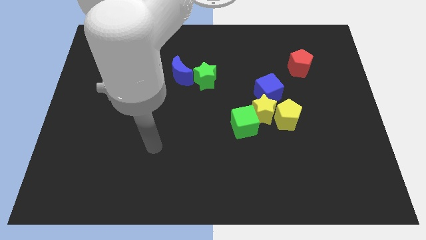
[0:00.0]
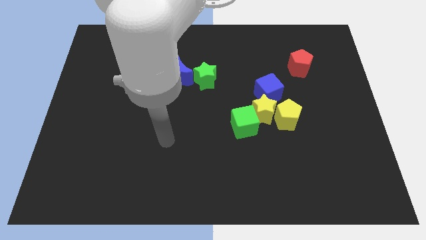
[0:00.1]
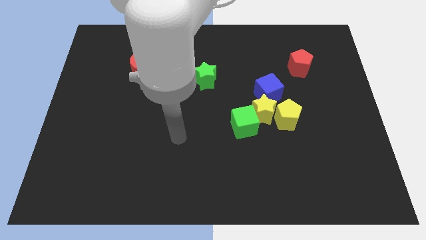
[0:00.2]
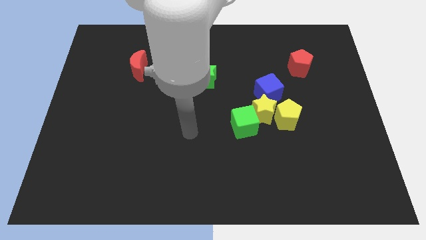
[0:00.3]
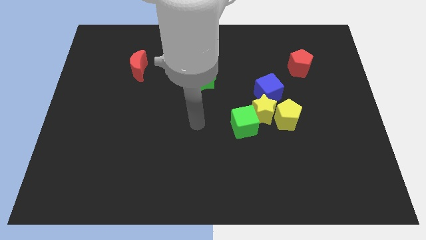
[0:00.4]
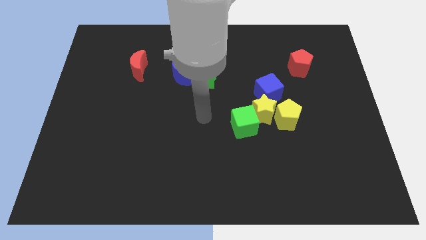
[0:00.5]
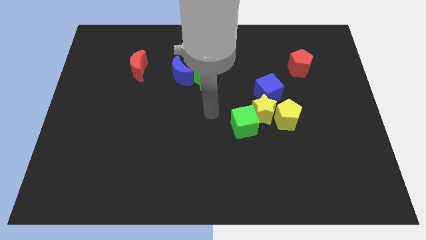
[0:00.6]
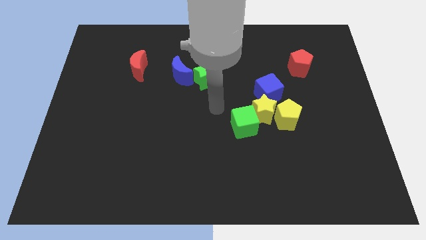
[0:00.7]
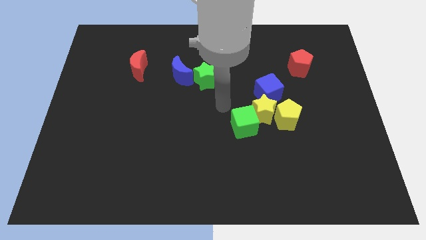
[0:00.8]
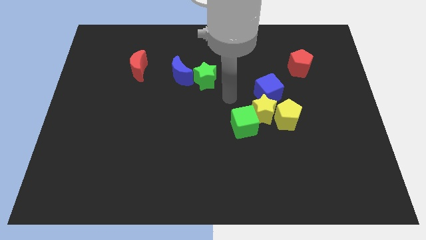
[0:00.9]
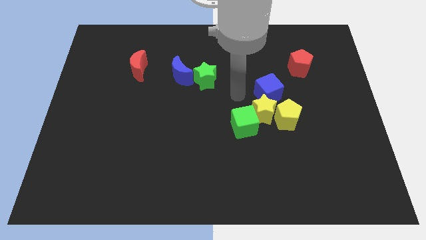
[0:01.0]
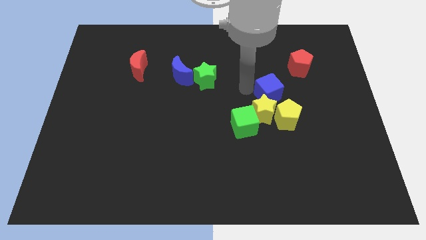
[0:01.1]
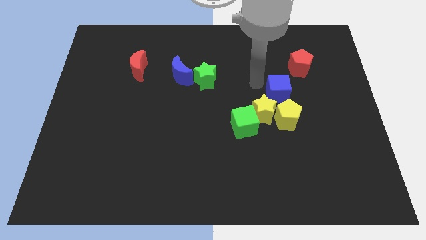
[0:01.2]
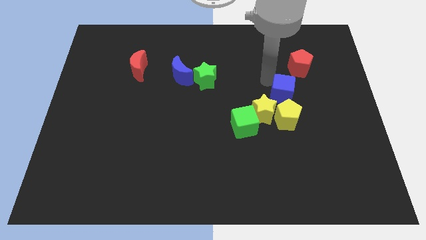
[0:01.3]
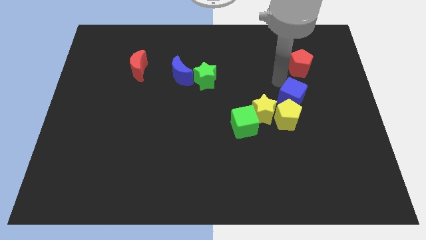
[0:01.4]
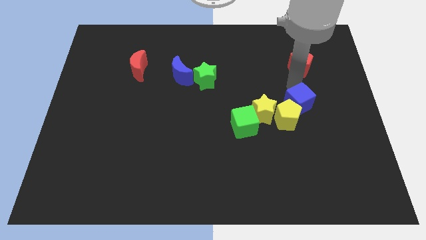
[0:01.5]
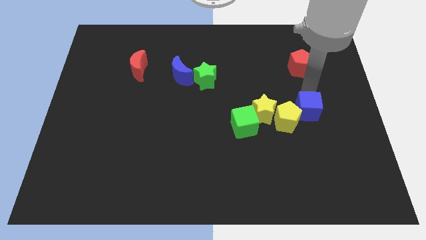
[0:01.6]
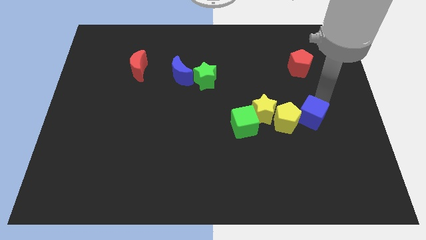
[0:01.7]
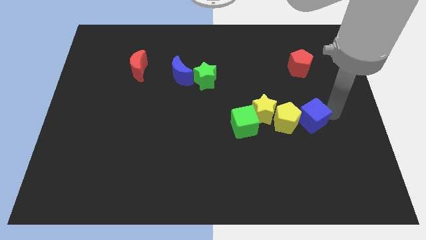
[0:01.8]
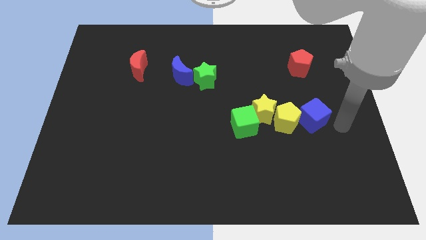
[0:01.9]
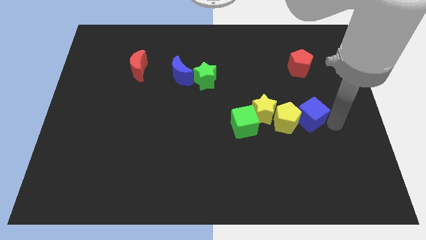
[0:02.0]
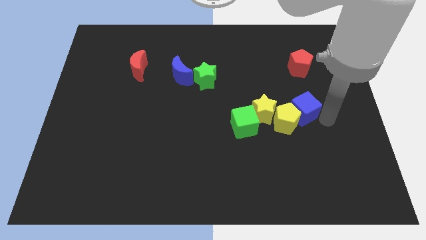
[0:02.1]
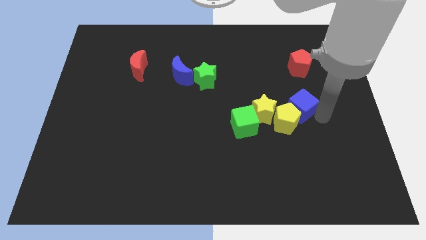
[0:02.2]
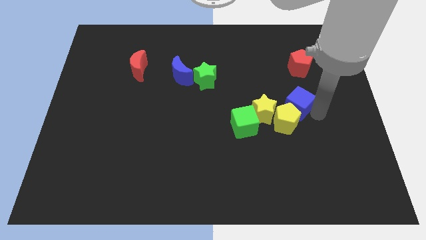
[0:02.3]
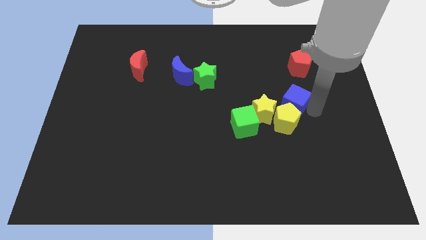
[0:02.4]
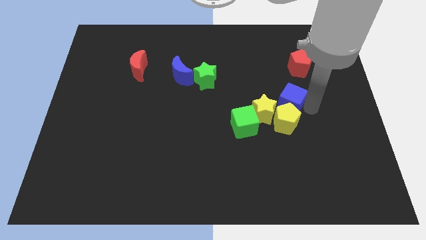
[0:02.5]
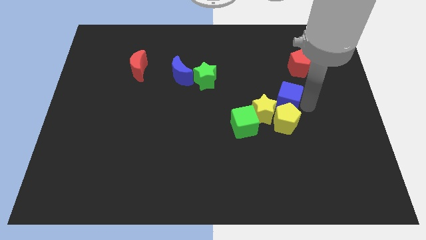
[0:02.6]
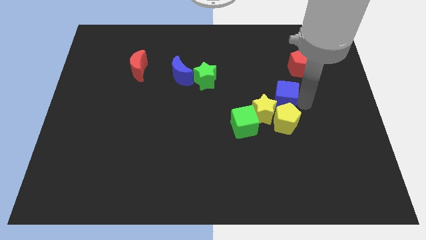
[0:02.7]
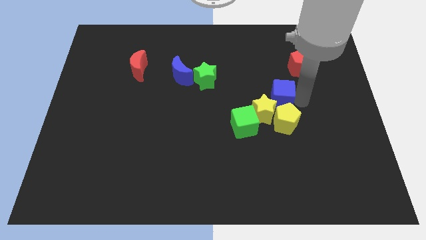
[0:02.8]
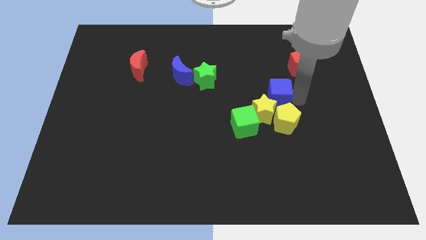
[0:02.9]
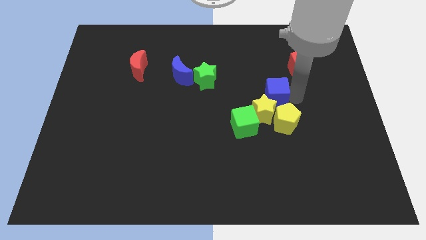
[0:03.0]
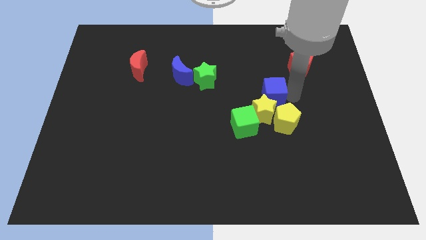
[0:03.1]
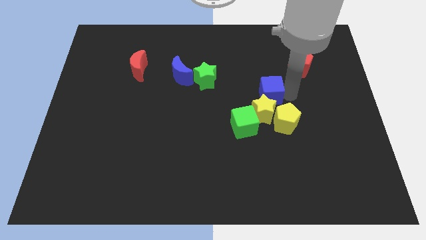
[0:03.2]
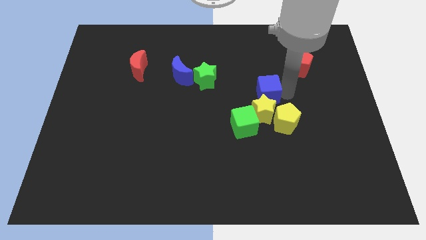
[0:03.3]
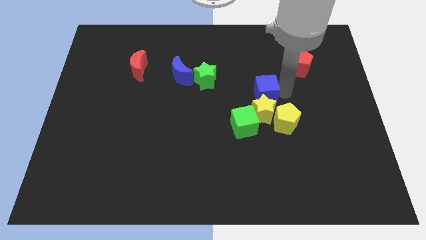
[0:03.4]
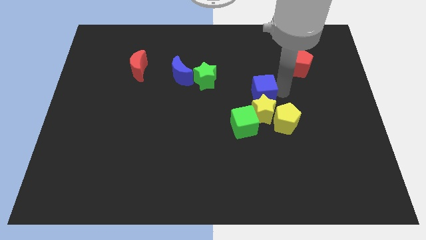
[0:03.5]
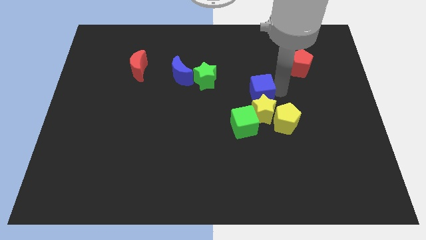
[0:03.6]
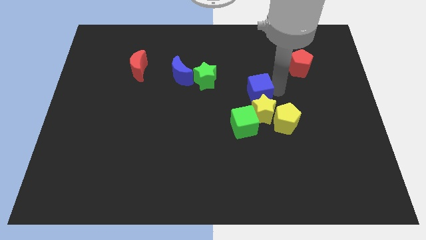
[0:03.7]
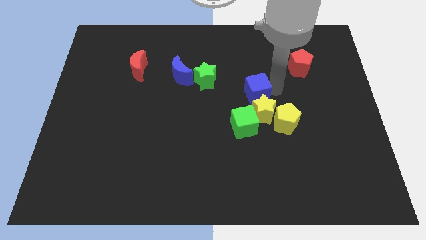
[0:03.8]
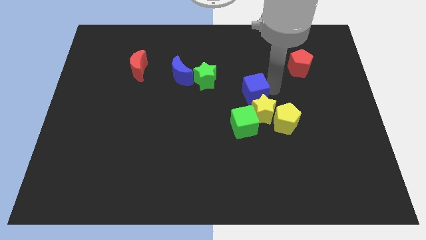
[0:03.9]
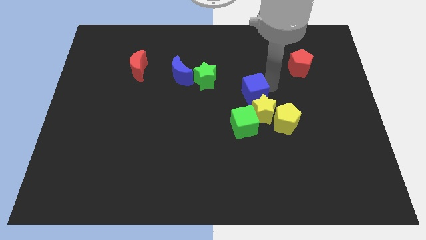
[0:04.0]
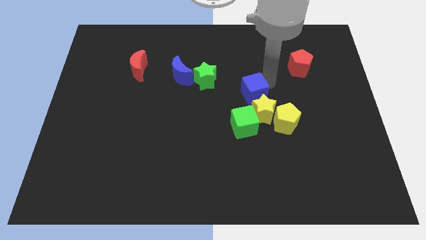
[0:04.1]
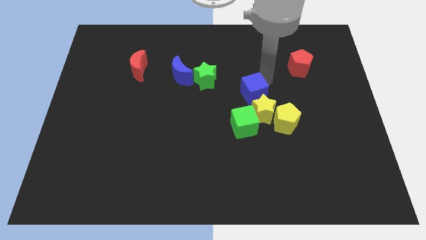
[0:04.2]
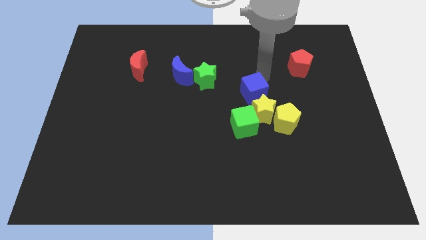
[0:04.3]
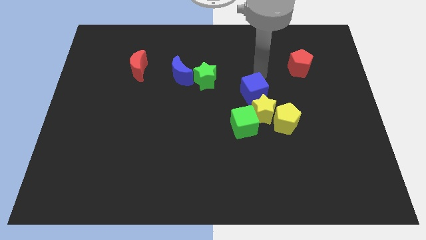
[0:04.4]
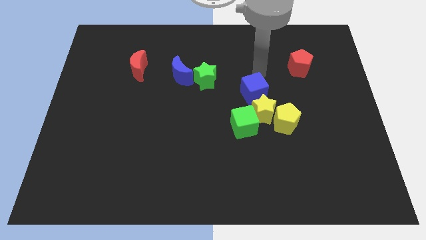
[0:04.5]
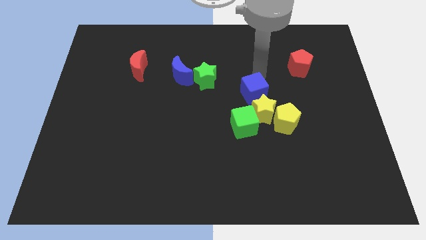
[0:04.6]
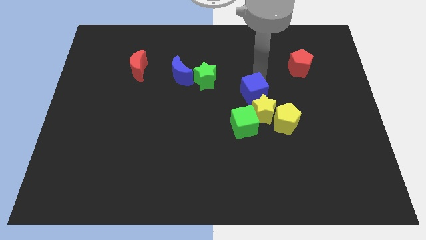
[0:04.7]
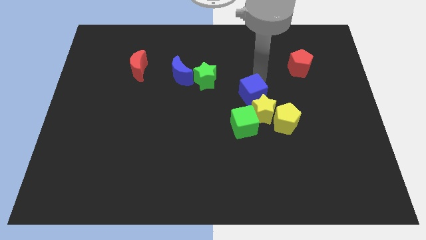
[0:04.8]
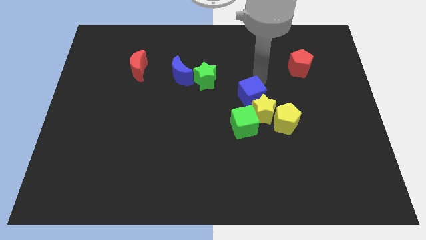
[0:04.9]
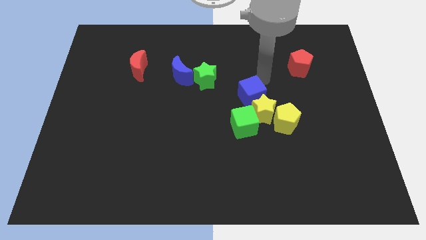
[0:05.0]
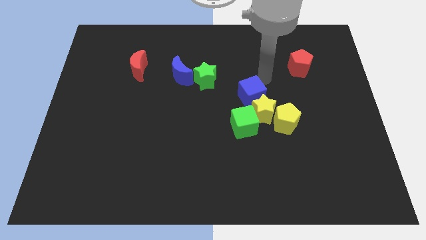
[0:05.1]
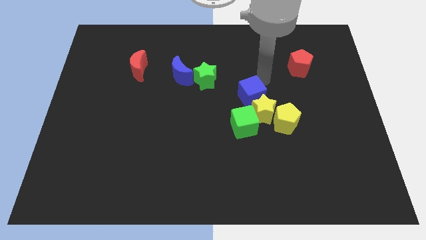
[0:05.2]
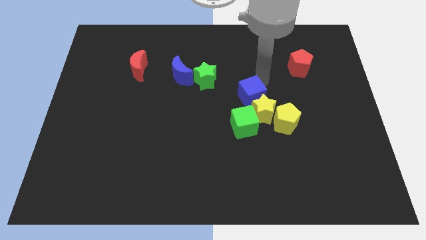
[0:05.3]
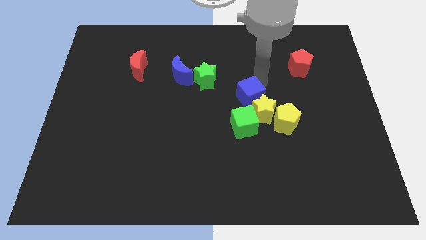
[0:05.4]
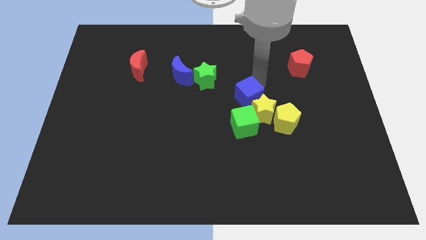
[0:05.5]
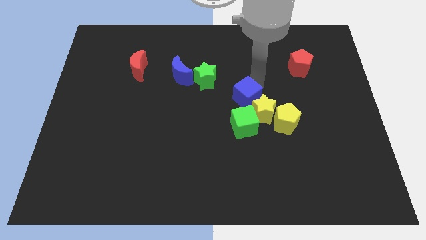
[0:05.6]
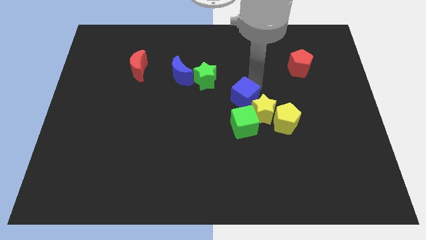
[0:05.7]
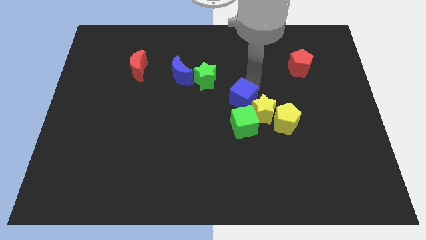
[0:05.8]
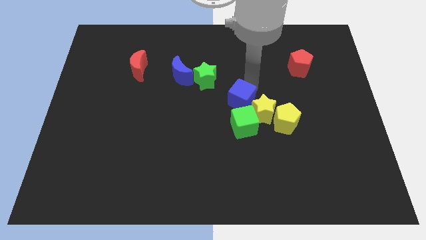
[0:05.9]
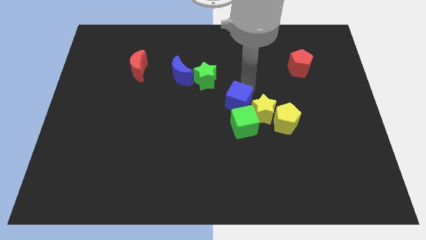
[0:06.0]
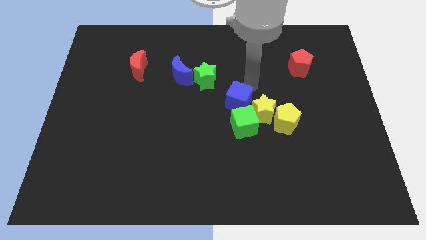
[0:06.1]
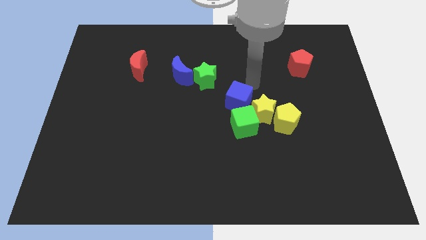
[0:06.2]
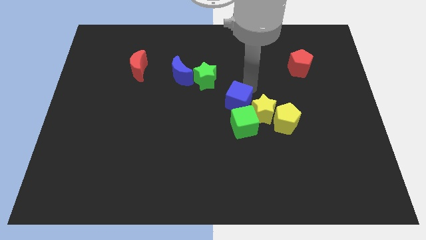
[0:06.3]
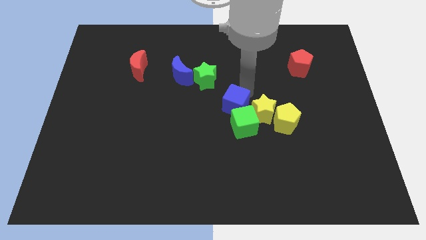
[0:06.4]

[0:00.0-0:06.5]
slightly move the blue cube diagonally down and to the left

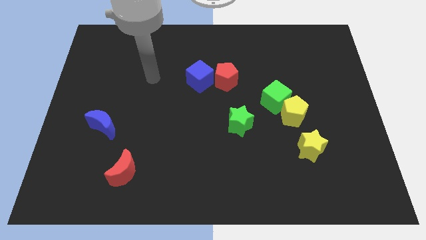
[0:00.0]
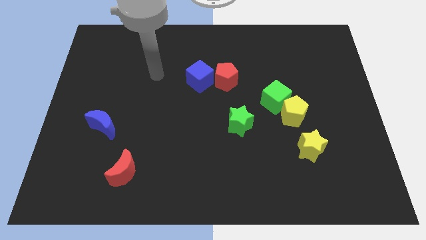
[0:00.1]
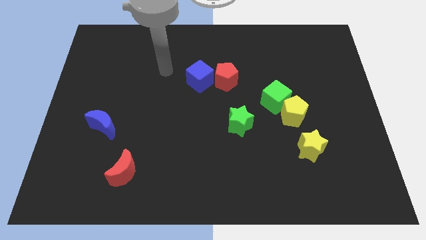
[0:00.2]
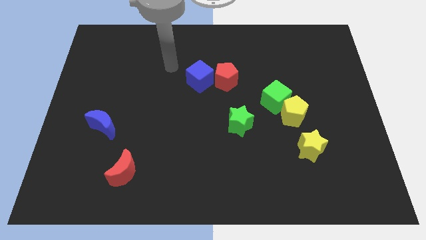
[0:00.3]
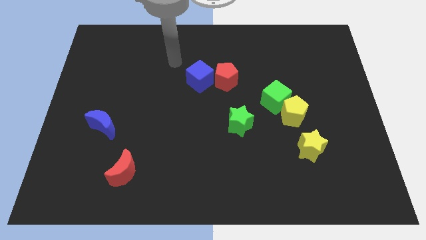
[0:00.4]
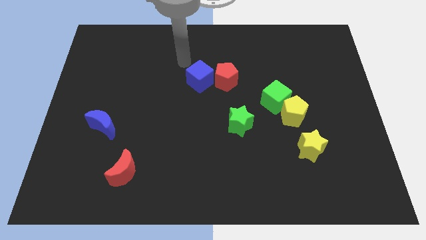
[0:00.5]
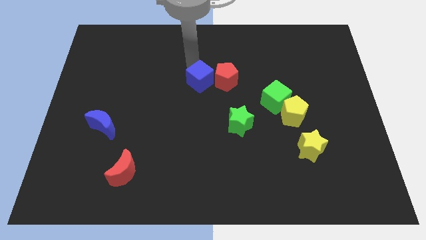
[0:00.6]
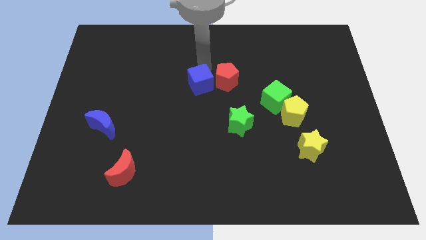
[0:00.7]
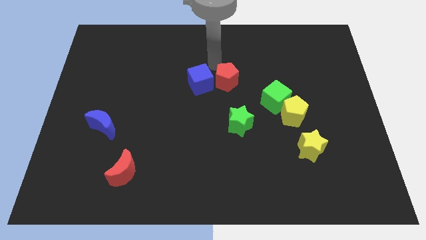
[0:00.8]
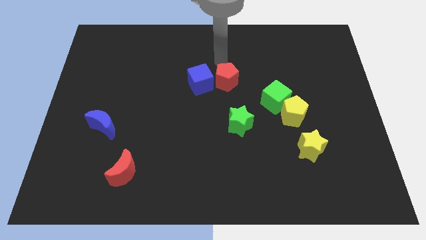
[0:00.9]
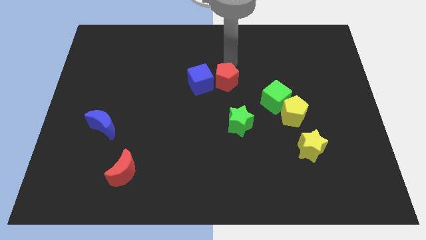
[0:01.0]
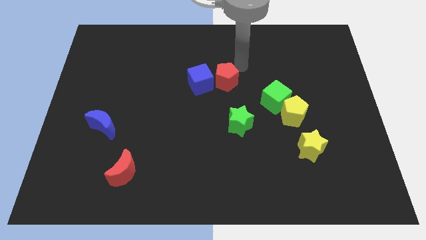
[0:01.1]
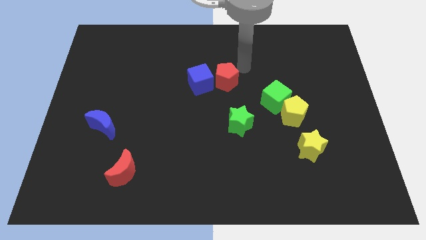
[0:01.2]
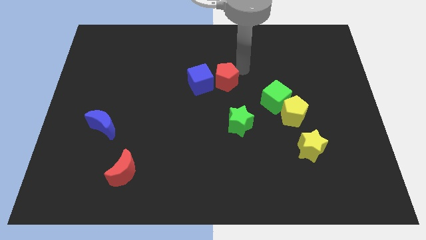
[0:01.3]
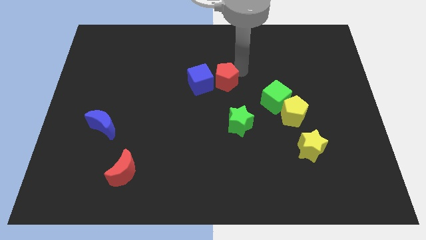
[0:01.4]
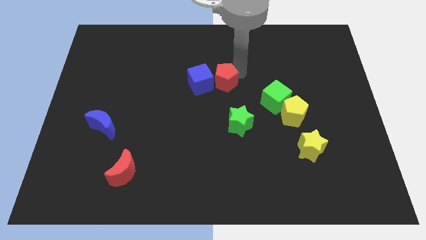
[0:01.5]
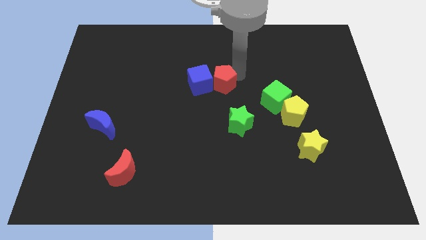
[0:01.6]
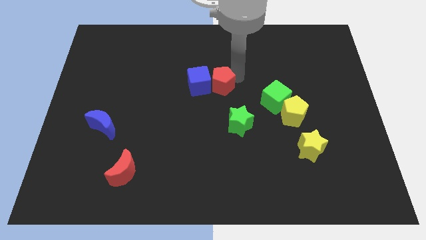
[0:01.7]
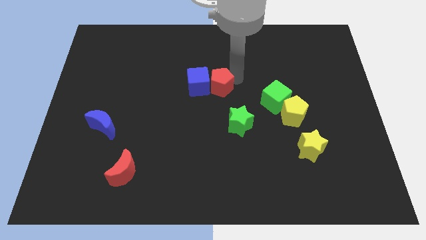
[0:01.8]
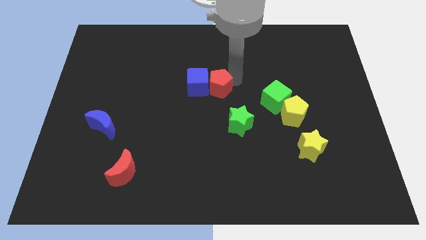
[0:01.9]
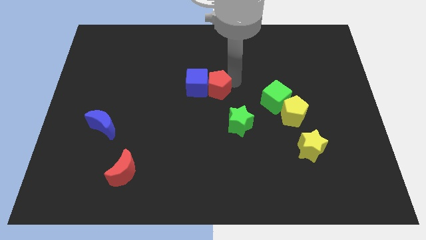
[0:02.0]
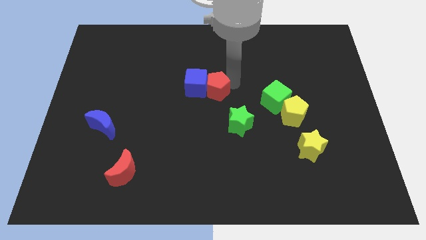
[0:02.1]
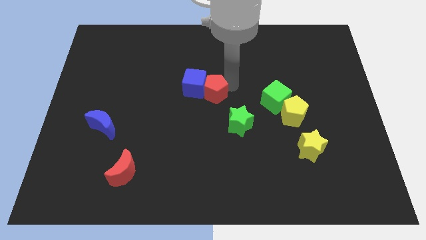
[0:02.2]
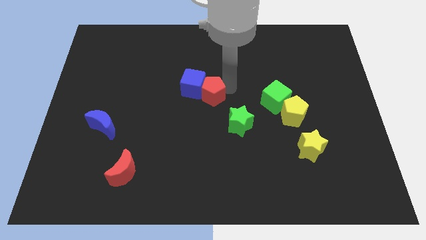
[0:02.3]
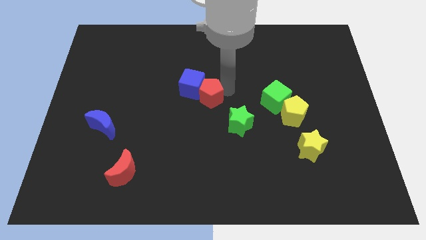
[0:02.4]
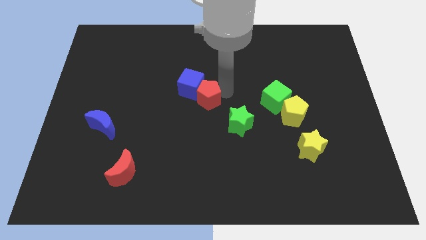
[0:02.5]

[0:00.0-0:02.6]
push the red pentagon downwards and then left a bit
